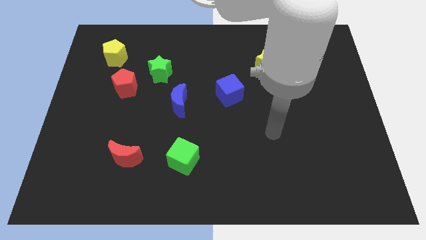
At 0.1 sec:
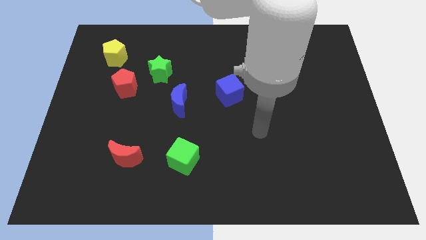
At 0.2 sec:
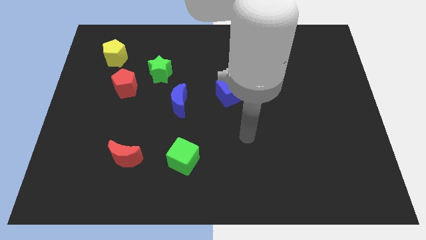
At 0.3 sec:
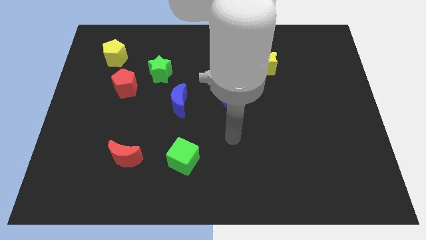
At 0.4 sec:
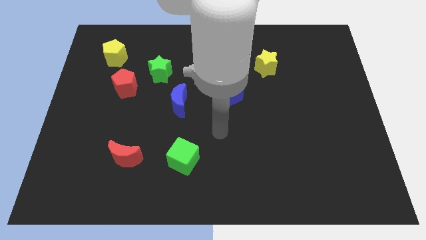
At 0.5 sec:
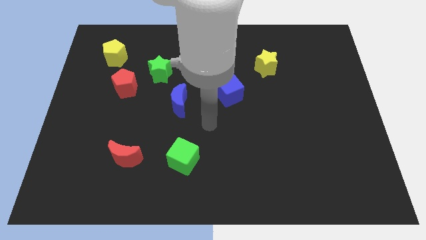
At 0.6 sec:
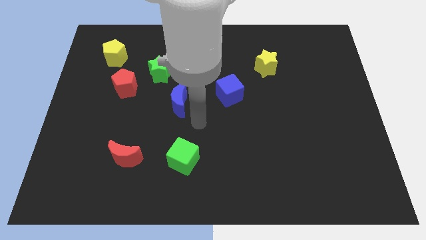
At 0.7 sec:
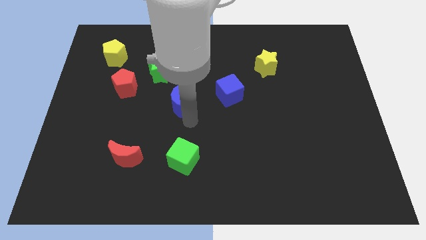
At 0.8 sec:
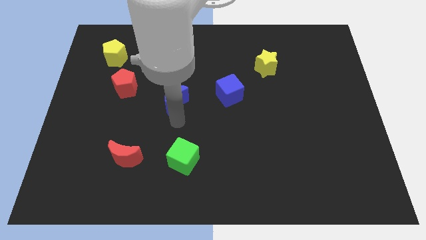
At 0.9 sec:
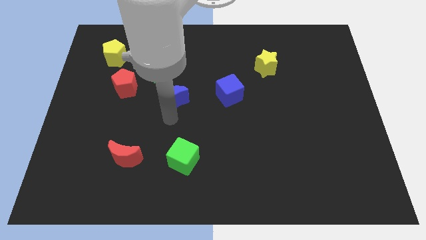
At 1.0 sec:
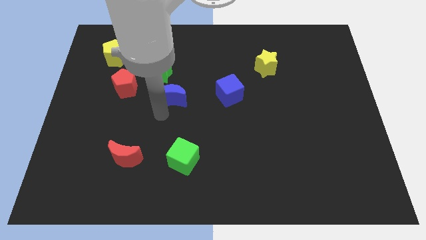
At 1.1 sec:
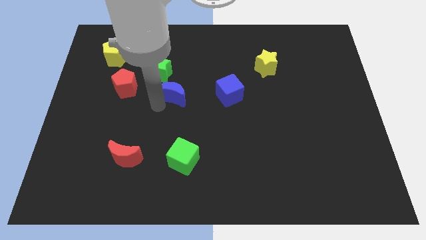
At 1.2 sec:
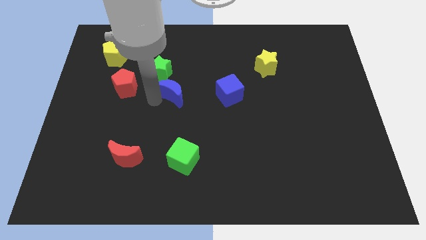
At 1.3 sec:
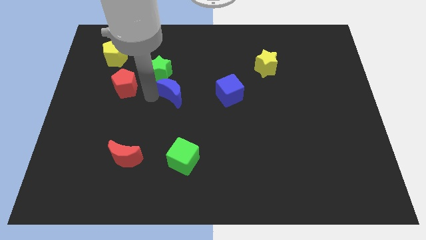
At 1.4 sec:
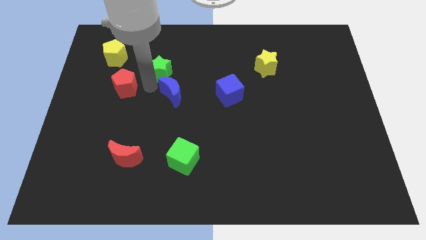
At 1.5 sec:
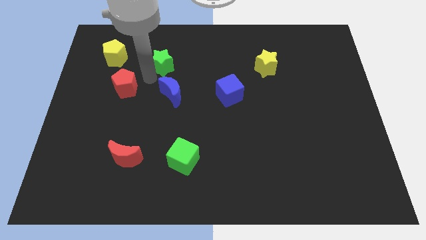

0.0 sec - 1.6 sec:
pull the red pentagon apart from the green star

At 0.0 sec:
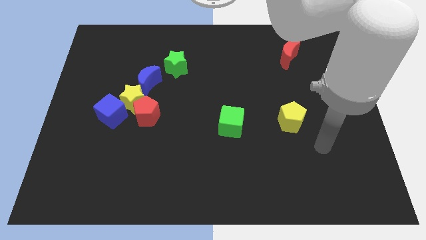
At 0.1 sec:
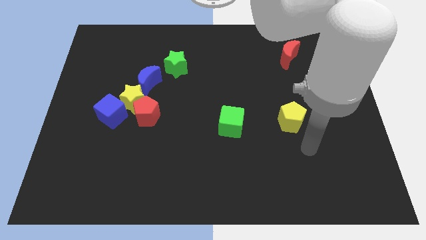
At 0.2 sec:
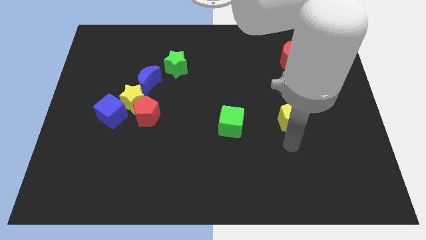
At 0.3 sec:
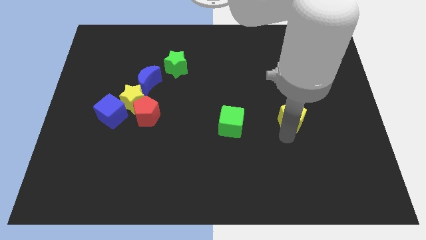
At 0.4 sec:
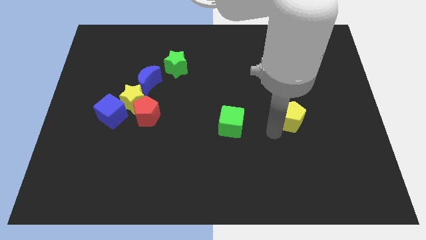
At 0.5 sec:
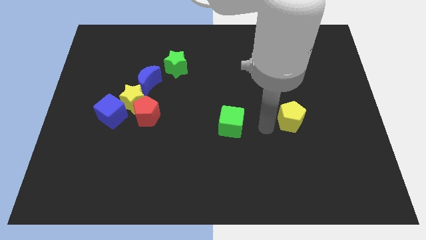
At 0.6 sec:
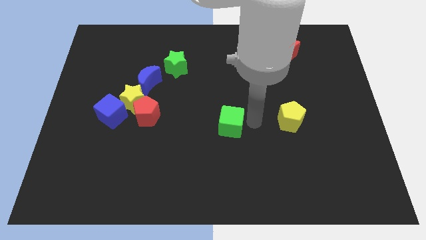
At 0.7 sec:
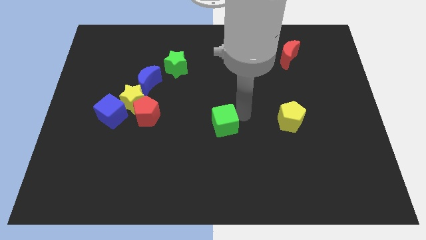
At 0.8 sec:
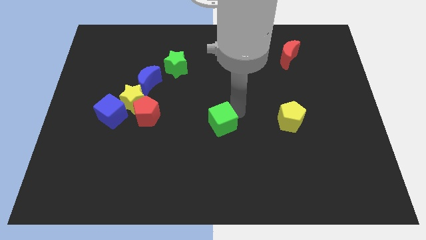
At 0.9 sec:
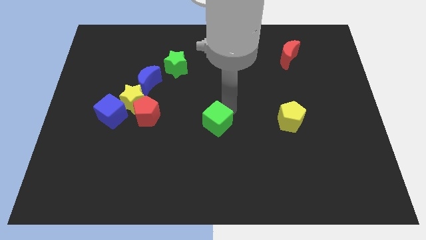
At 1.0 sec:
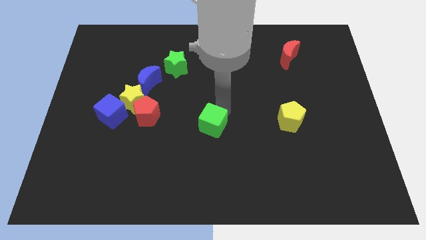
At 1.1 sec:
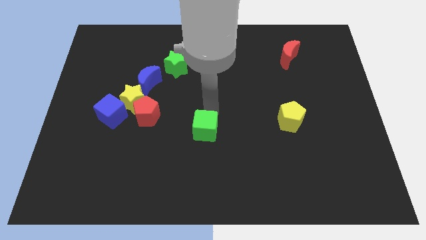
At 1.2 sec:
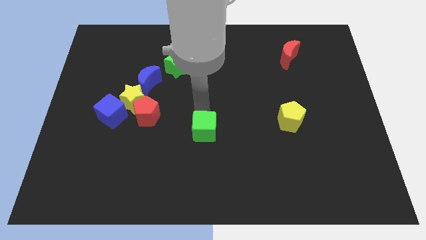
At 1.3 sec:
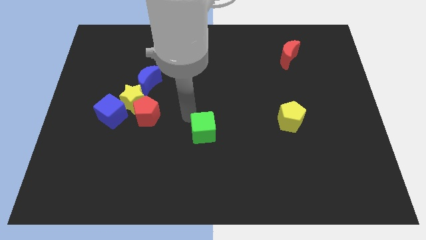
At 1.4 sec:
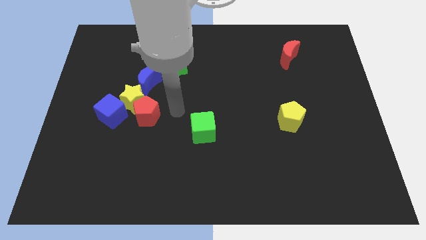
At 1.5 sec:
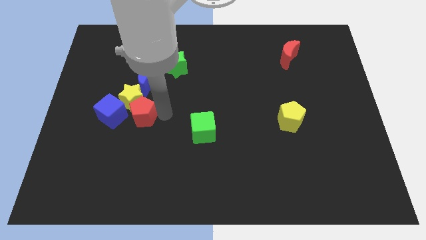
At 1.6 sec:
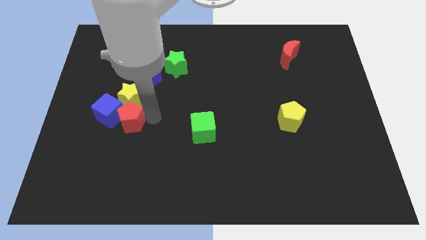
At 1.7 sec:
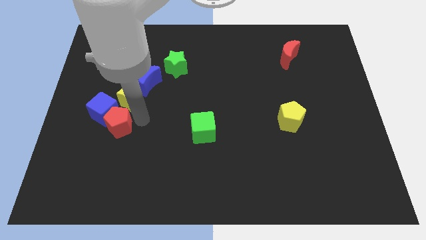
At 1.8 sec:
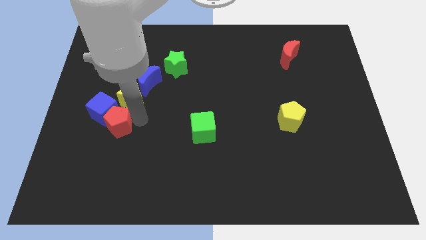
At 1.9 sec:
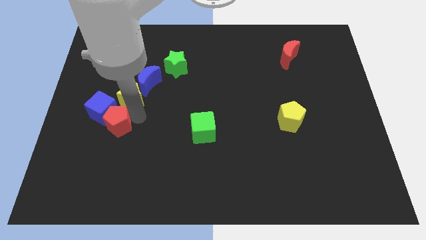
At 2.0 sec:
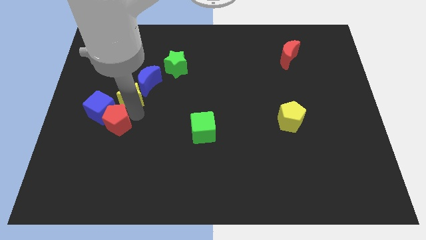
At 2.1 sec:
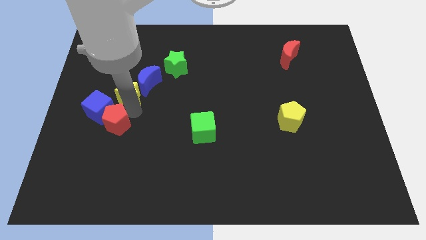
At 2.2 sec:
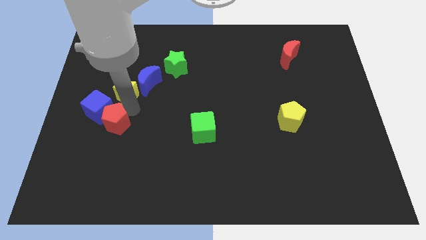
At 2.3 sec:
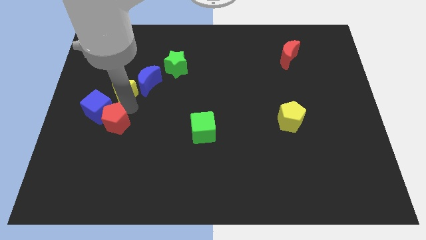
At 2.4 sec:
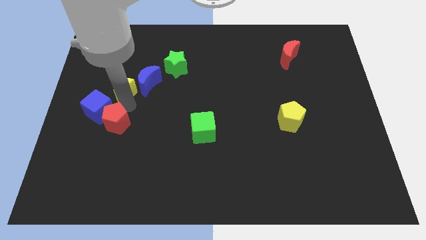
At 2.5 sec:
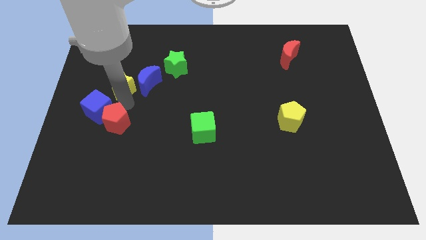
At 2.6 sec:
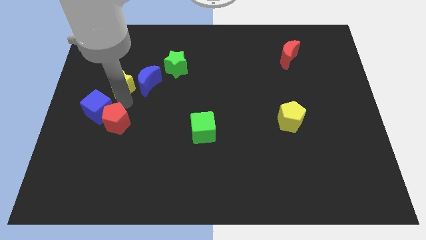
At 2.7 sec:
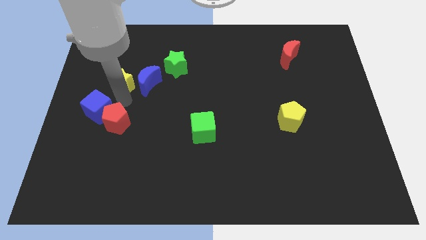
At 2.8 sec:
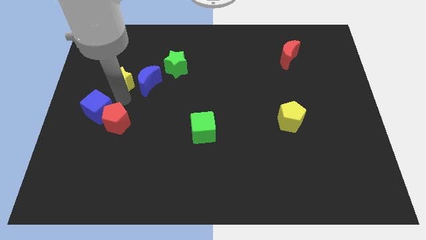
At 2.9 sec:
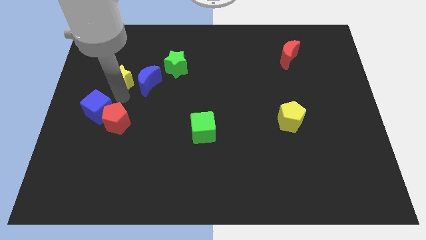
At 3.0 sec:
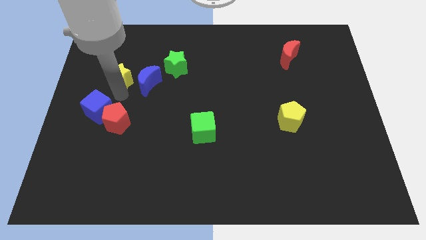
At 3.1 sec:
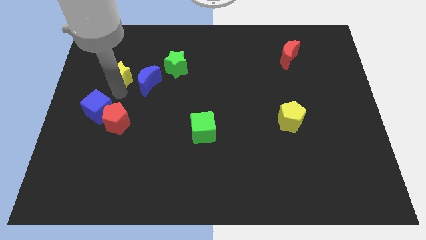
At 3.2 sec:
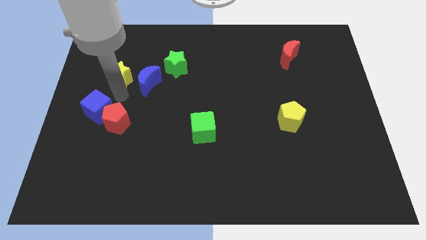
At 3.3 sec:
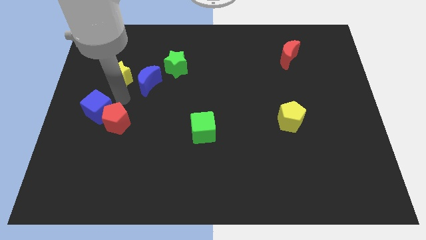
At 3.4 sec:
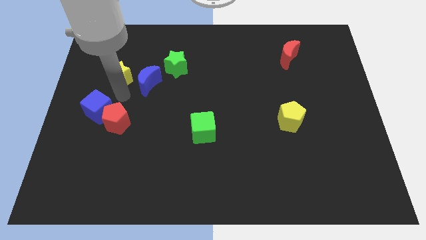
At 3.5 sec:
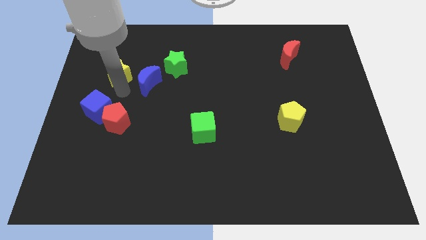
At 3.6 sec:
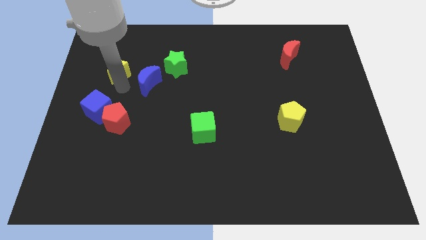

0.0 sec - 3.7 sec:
pull the yellow star apart from the group

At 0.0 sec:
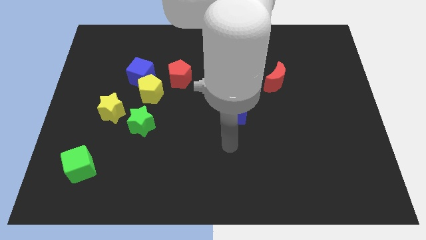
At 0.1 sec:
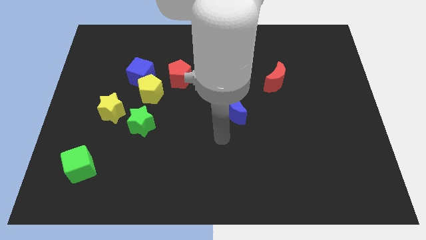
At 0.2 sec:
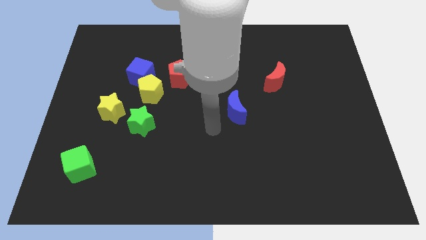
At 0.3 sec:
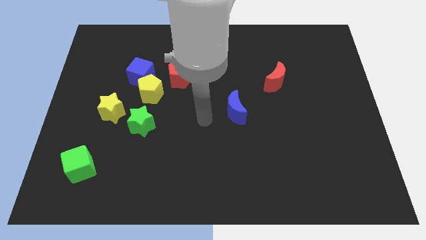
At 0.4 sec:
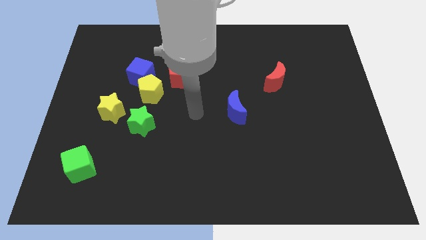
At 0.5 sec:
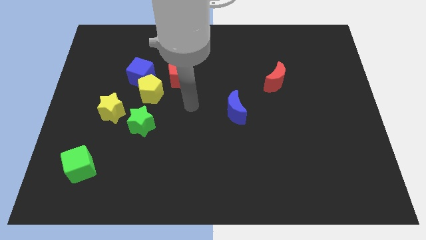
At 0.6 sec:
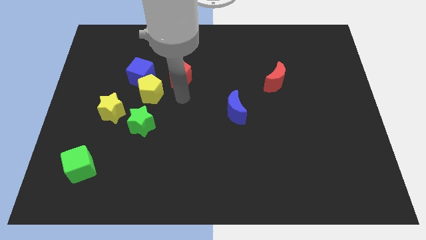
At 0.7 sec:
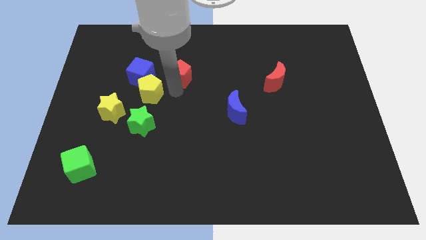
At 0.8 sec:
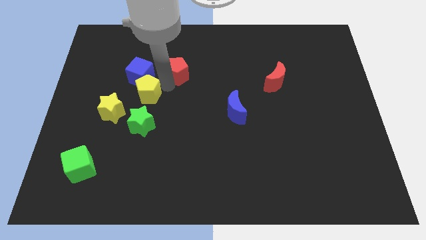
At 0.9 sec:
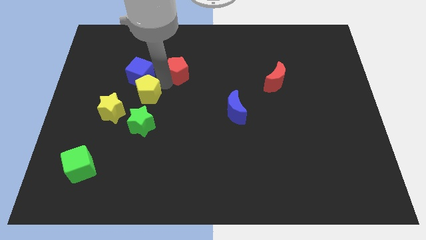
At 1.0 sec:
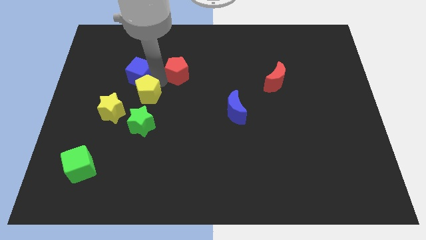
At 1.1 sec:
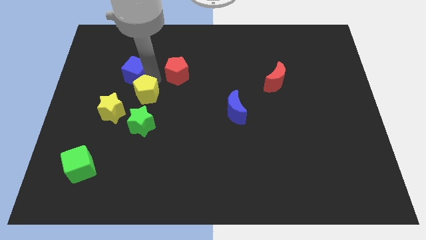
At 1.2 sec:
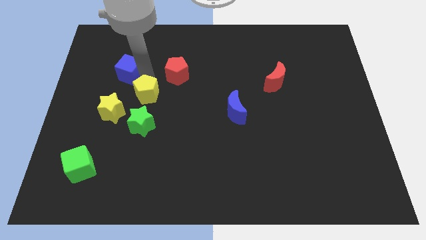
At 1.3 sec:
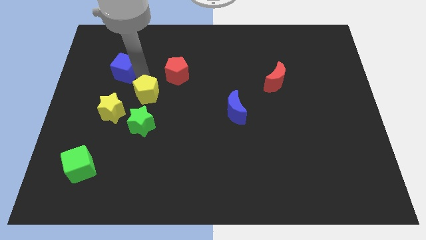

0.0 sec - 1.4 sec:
separate the blue cube from the yellow pentagon and red pentagon

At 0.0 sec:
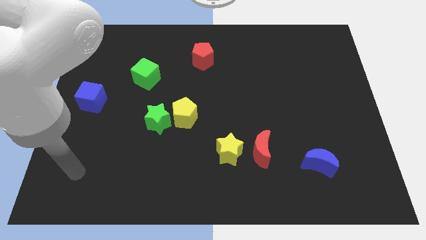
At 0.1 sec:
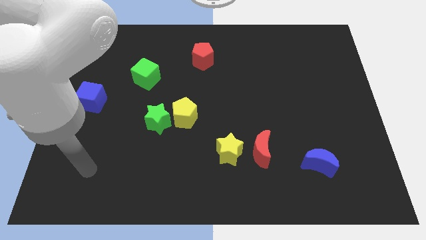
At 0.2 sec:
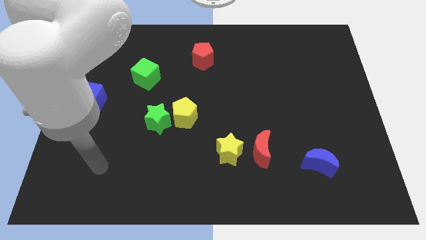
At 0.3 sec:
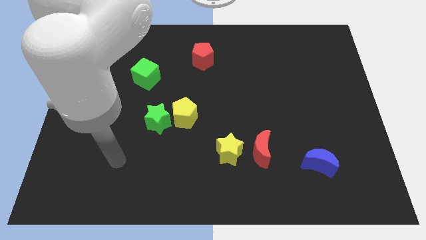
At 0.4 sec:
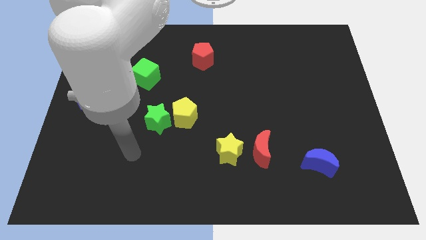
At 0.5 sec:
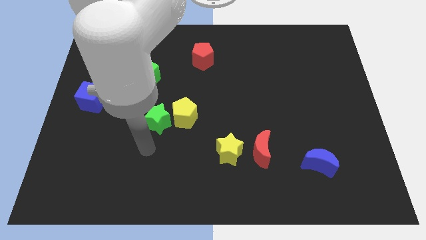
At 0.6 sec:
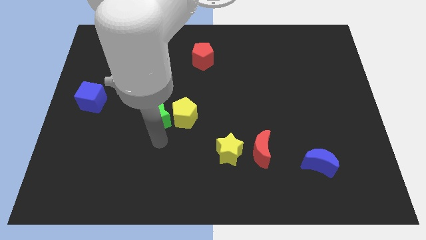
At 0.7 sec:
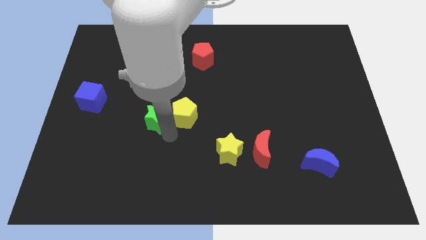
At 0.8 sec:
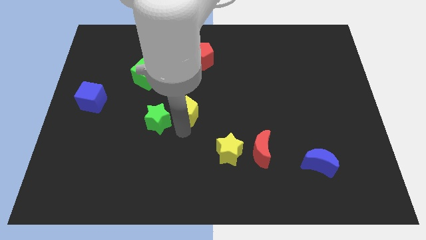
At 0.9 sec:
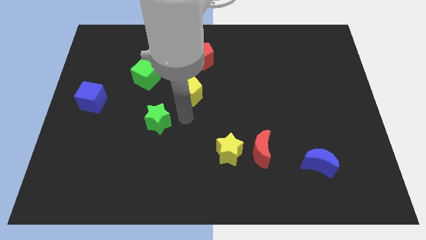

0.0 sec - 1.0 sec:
move the green star away from the yellow pentagon

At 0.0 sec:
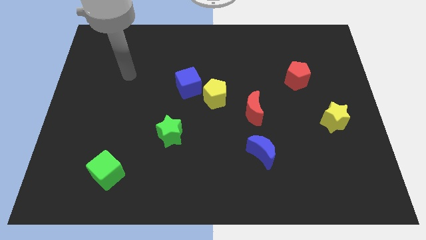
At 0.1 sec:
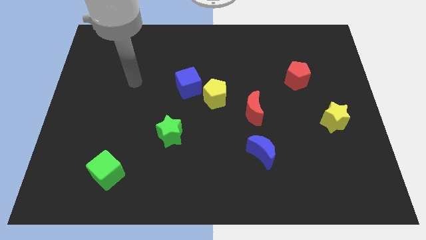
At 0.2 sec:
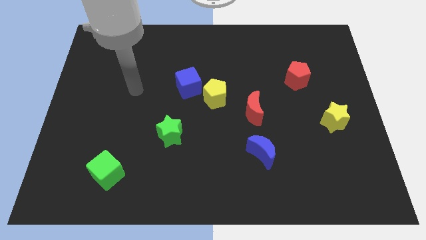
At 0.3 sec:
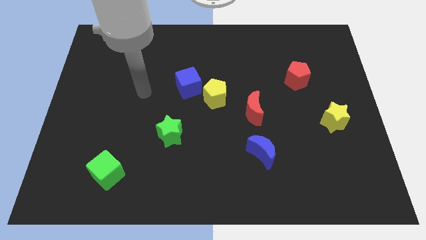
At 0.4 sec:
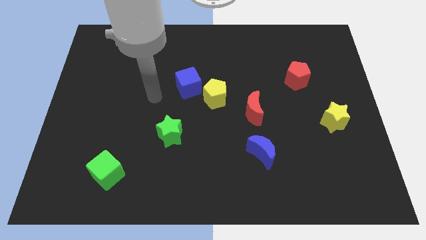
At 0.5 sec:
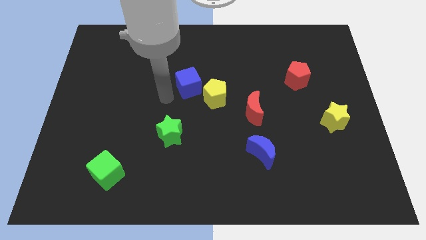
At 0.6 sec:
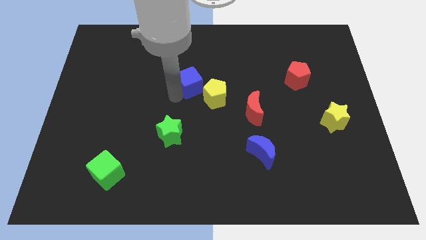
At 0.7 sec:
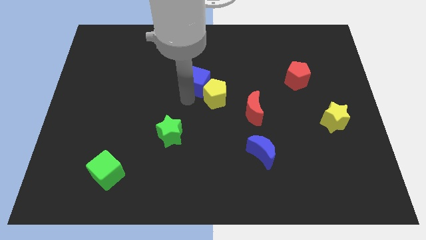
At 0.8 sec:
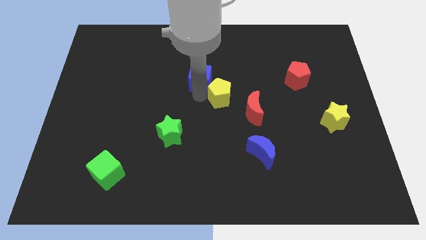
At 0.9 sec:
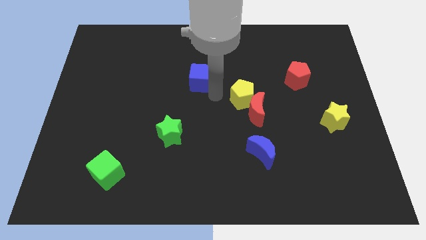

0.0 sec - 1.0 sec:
pull the blue cube apart from the yellow pentagon

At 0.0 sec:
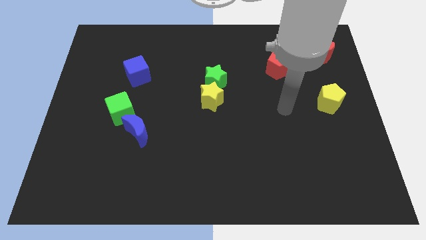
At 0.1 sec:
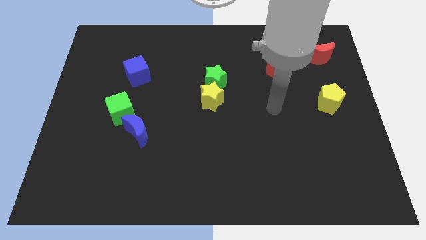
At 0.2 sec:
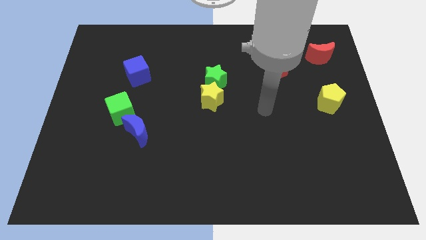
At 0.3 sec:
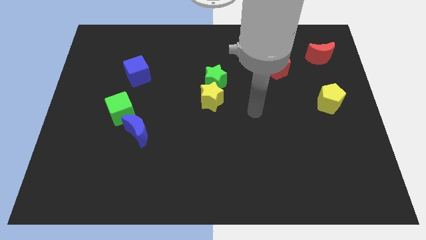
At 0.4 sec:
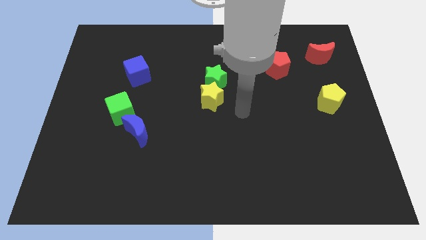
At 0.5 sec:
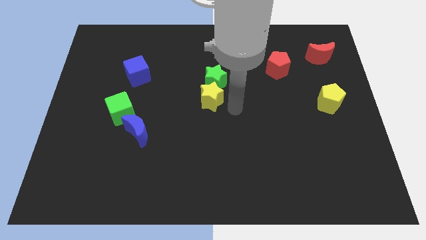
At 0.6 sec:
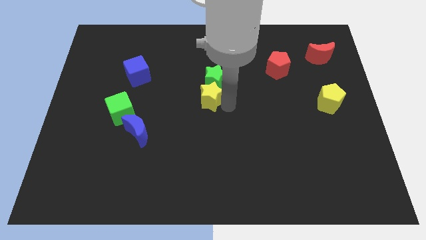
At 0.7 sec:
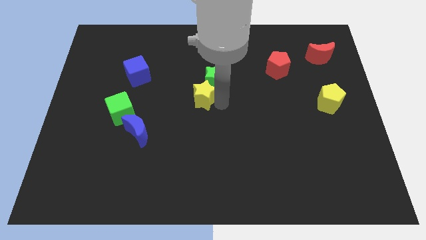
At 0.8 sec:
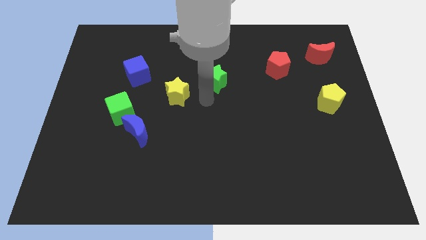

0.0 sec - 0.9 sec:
pull the green star apart from the yellow star
